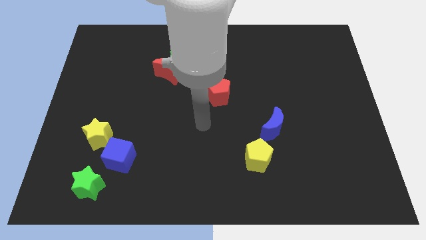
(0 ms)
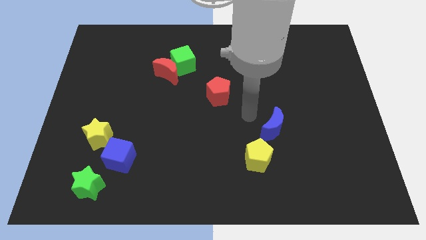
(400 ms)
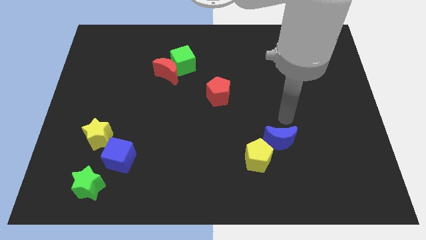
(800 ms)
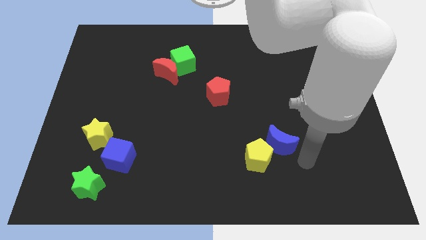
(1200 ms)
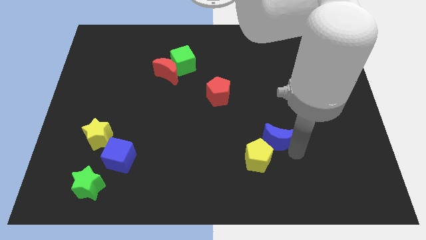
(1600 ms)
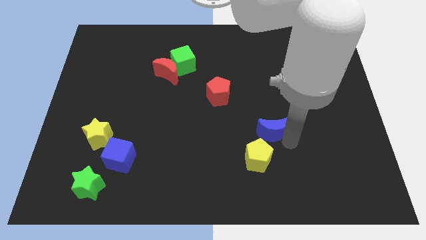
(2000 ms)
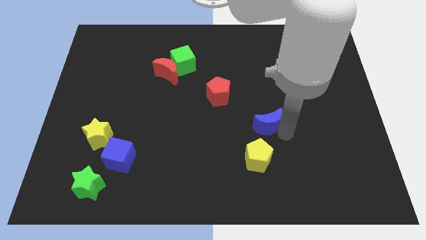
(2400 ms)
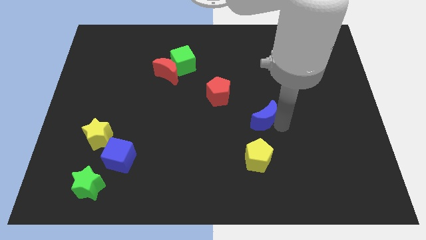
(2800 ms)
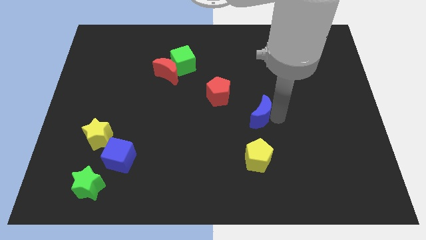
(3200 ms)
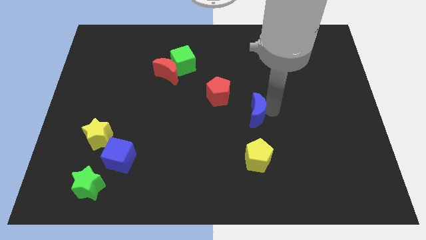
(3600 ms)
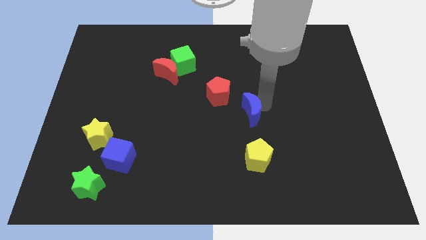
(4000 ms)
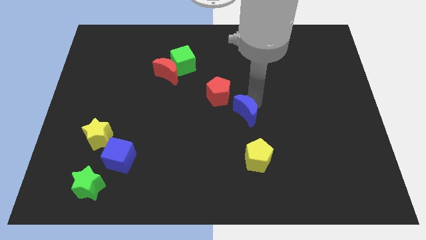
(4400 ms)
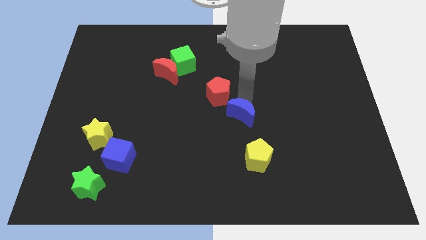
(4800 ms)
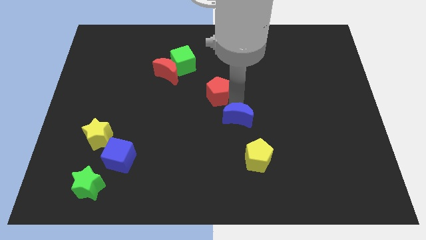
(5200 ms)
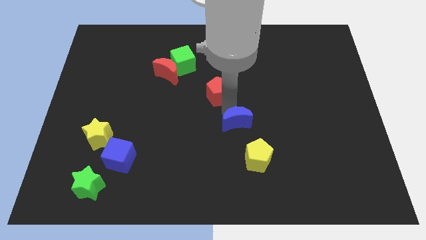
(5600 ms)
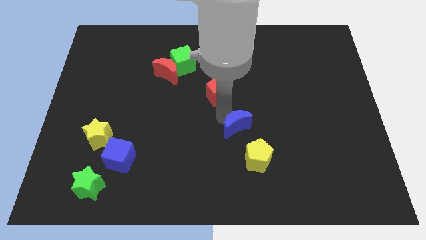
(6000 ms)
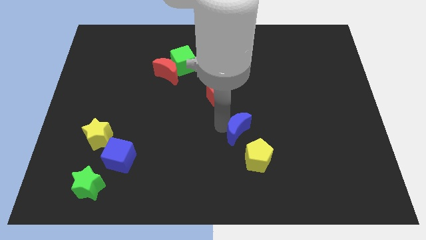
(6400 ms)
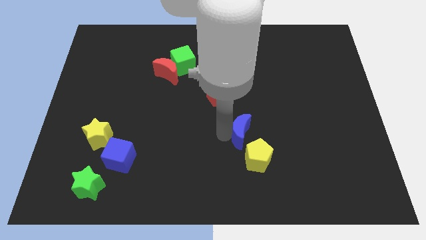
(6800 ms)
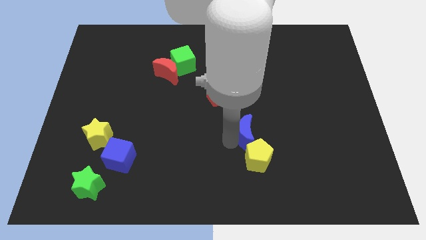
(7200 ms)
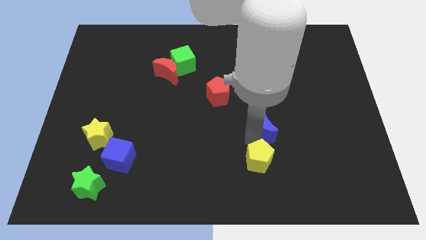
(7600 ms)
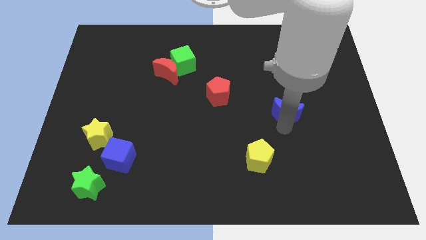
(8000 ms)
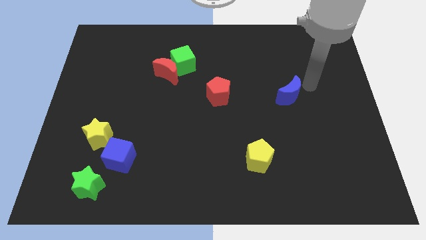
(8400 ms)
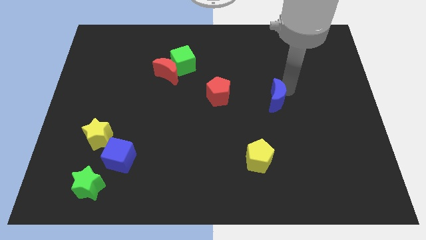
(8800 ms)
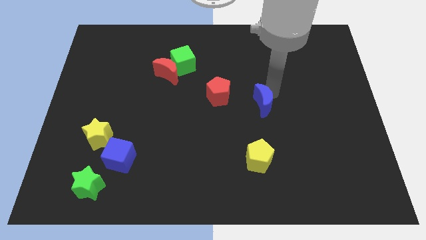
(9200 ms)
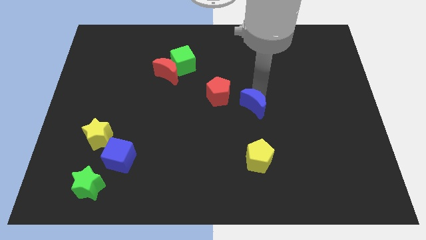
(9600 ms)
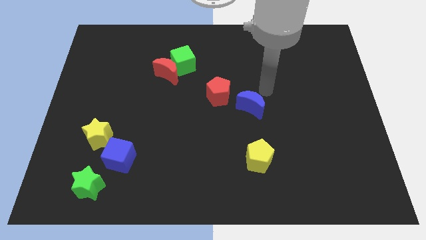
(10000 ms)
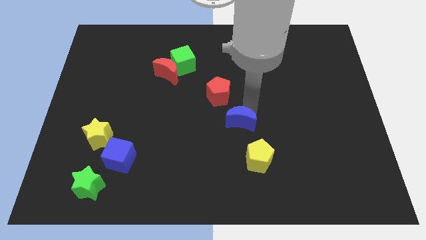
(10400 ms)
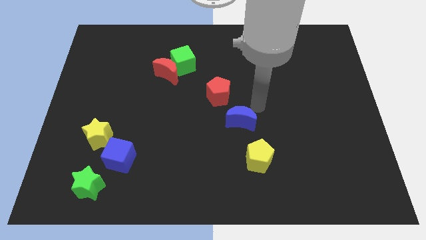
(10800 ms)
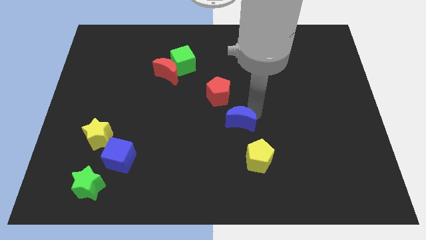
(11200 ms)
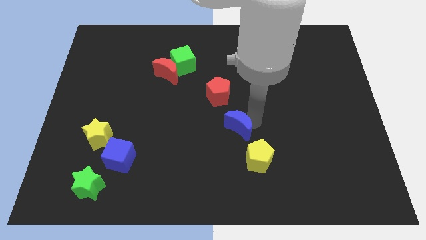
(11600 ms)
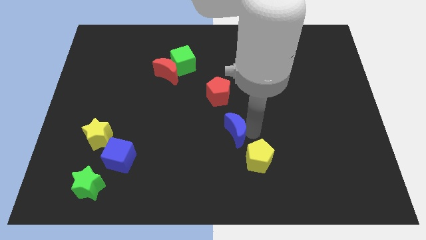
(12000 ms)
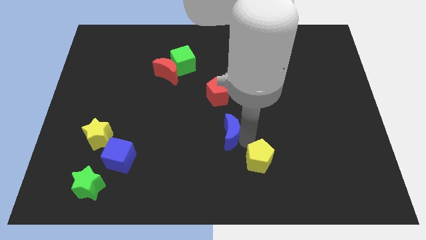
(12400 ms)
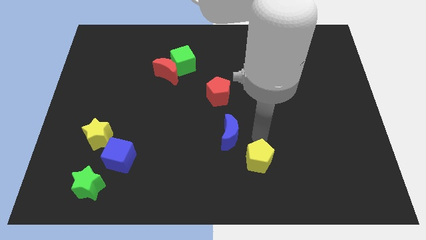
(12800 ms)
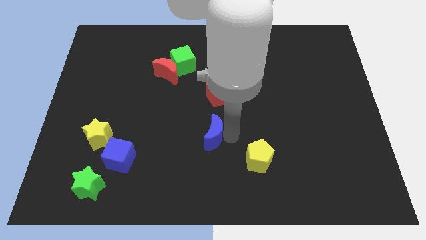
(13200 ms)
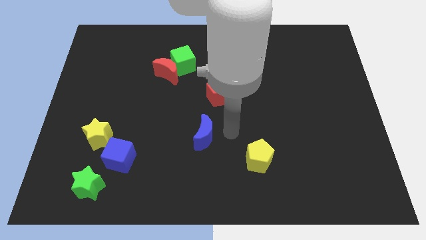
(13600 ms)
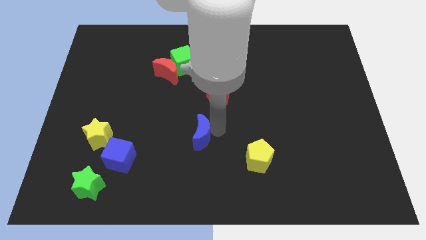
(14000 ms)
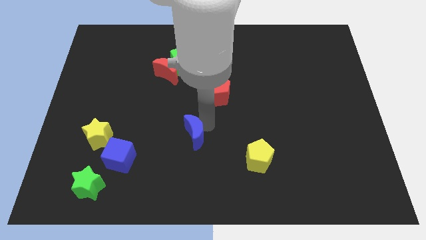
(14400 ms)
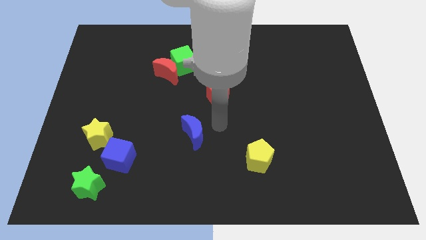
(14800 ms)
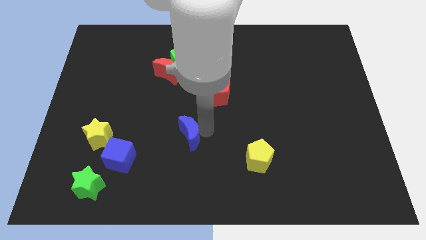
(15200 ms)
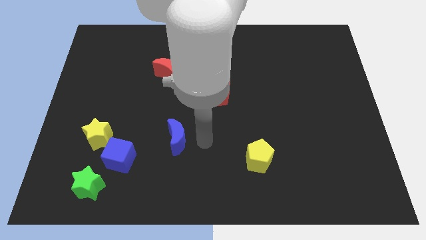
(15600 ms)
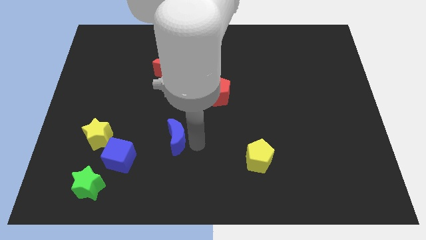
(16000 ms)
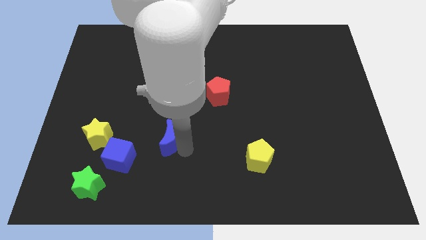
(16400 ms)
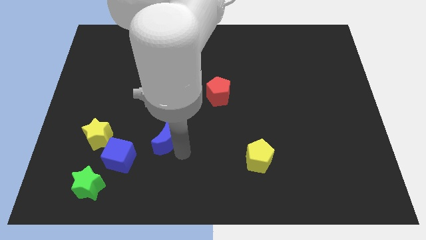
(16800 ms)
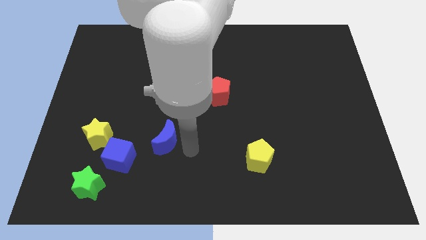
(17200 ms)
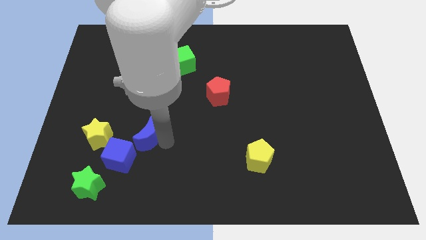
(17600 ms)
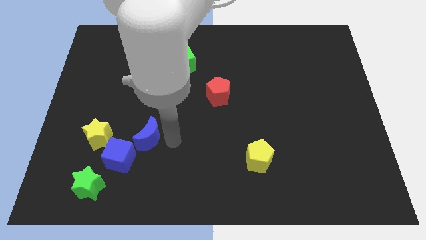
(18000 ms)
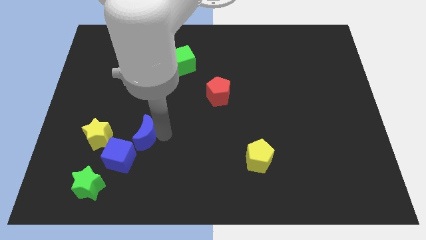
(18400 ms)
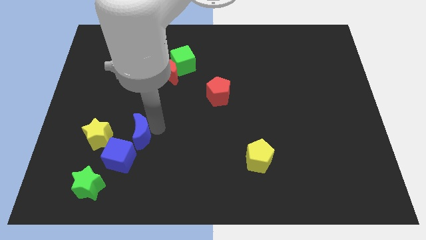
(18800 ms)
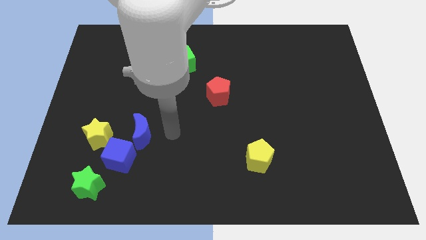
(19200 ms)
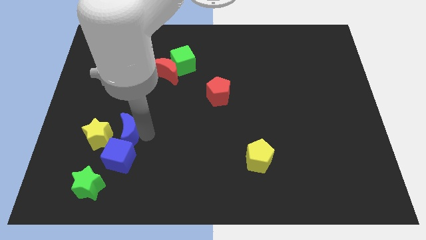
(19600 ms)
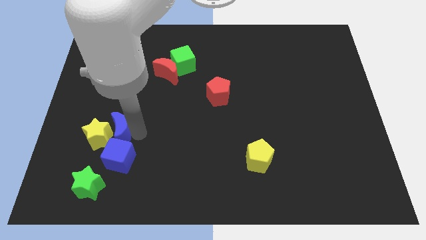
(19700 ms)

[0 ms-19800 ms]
push the blue moon close to the yellow star

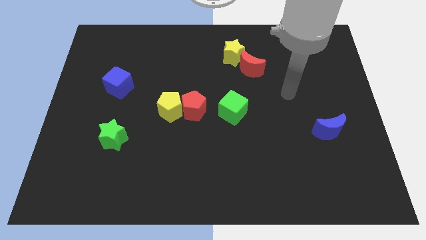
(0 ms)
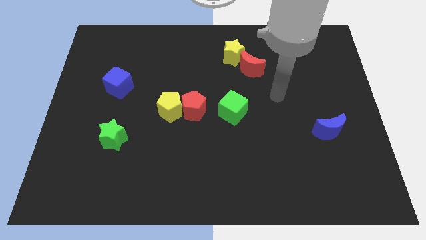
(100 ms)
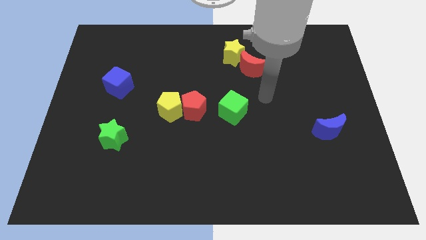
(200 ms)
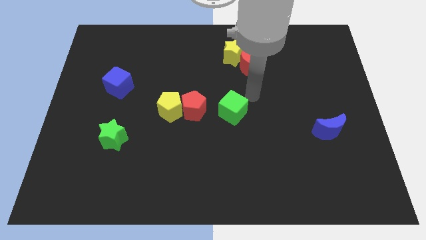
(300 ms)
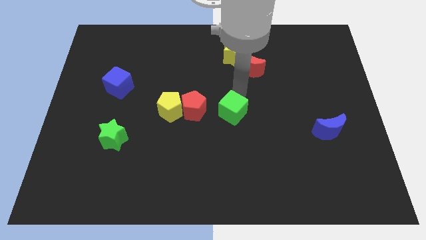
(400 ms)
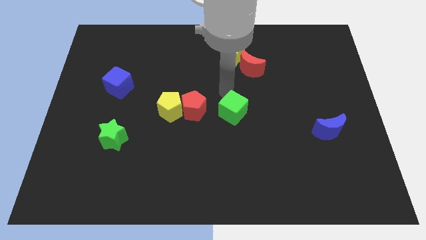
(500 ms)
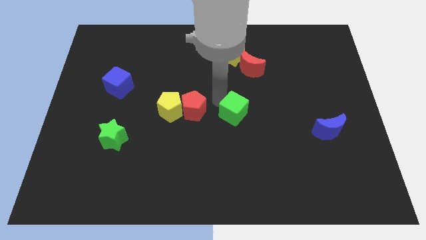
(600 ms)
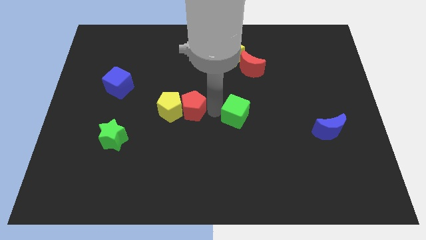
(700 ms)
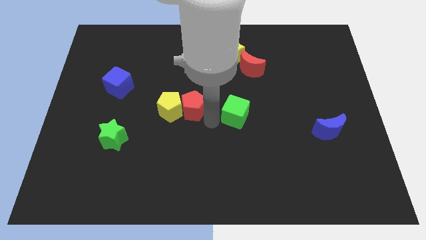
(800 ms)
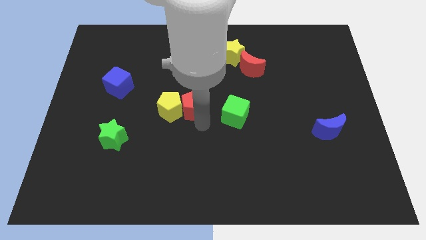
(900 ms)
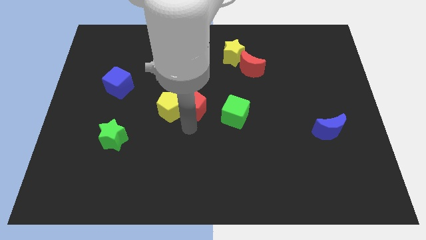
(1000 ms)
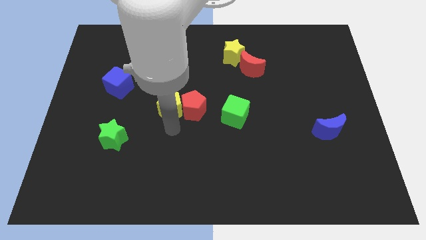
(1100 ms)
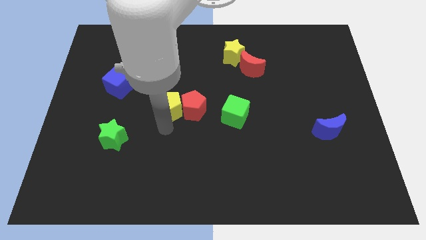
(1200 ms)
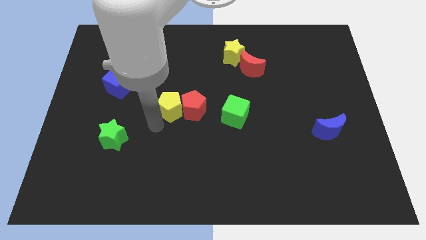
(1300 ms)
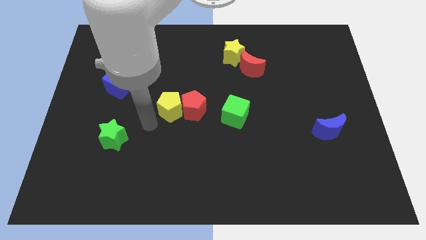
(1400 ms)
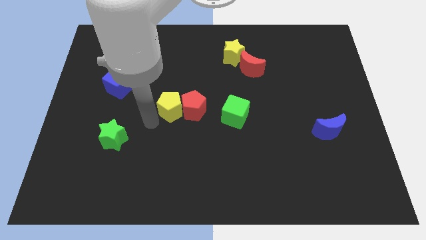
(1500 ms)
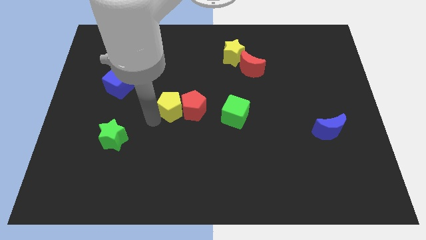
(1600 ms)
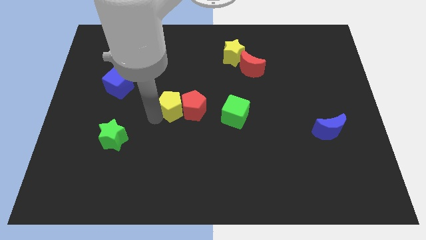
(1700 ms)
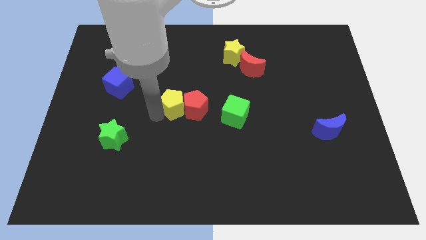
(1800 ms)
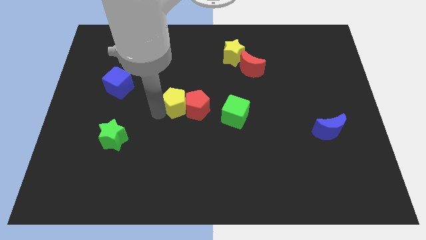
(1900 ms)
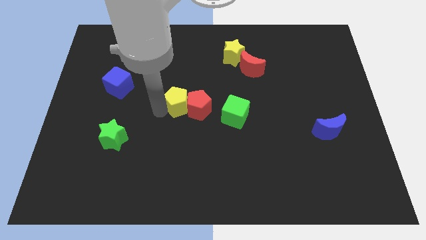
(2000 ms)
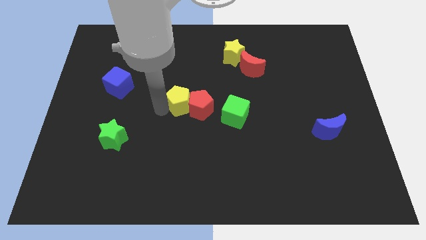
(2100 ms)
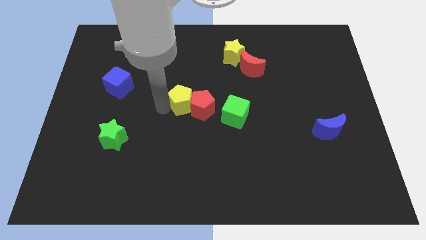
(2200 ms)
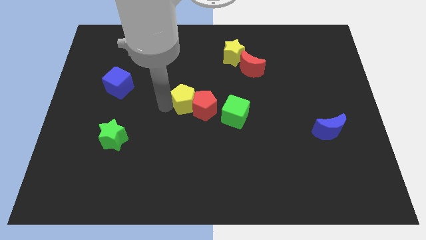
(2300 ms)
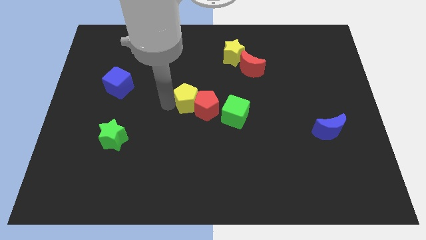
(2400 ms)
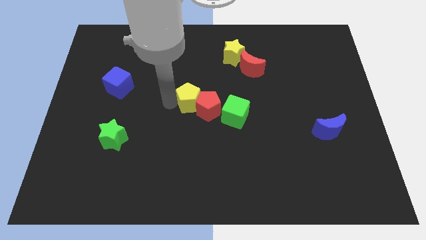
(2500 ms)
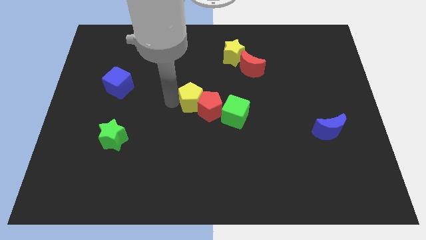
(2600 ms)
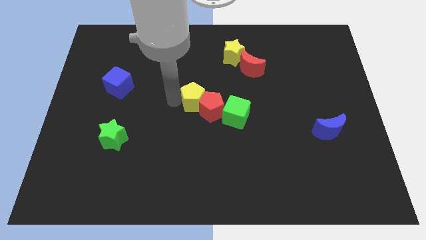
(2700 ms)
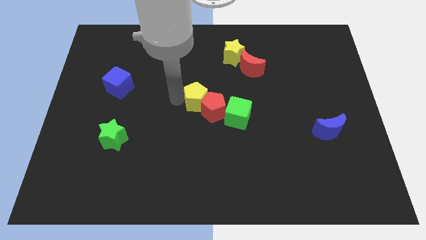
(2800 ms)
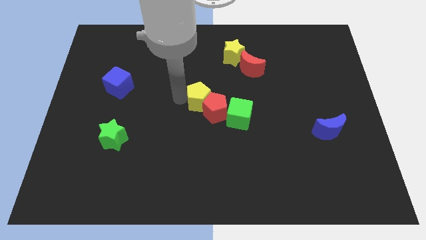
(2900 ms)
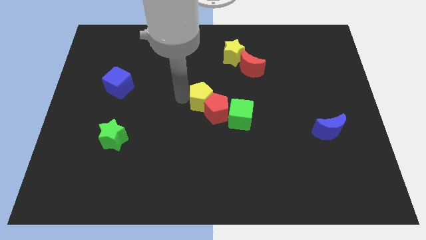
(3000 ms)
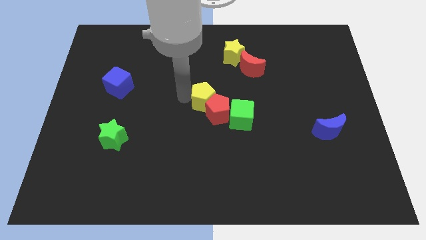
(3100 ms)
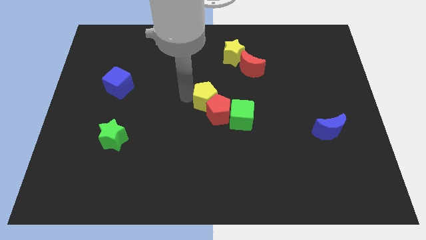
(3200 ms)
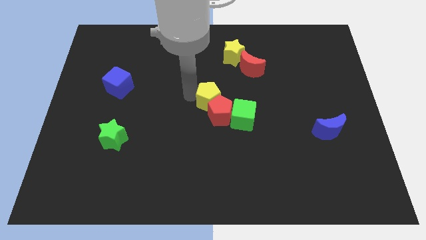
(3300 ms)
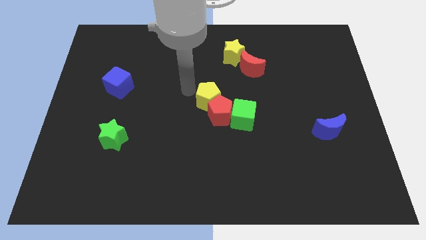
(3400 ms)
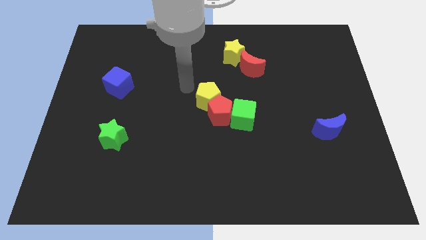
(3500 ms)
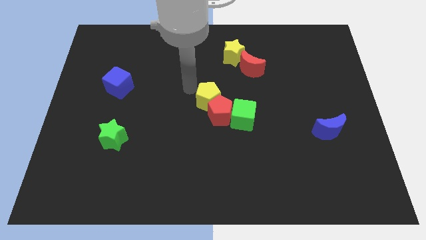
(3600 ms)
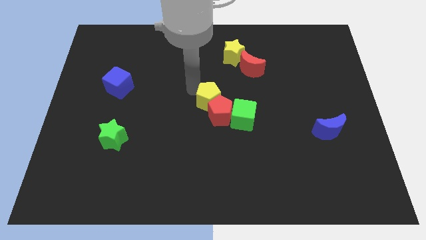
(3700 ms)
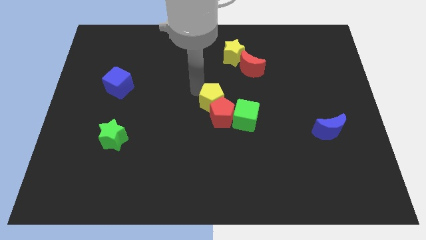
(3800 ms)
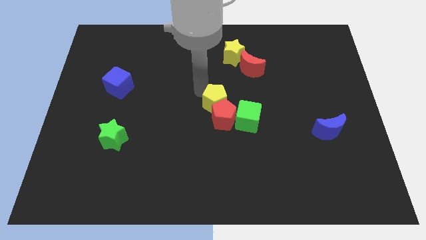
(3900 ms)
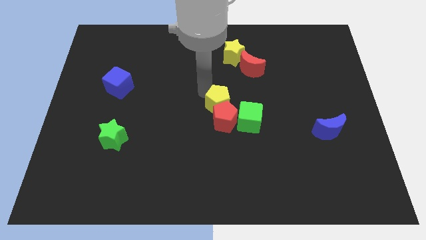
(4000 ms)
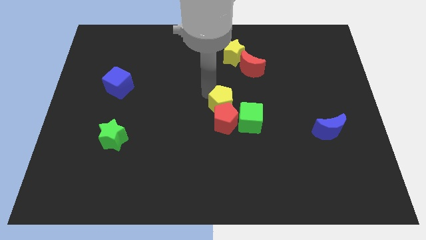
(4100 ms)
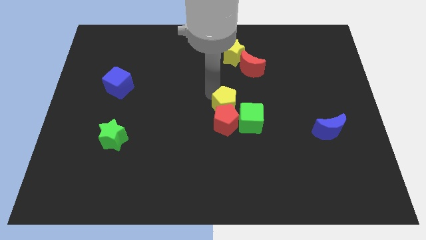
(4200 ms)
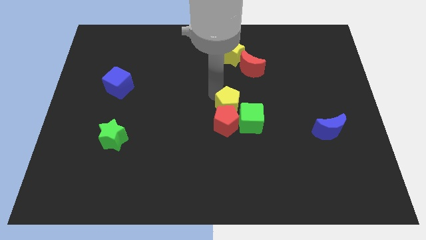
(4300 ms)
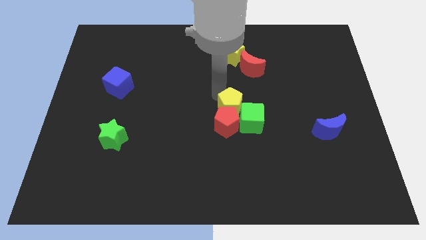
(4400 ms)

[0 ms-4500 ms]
slide the yellow pentagon towards the green cube
